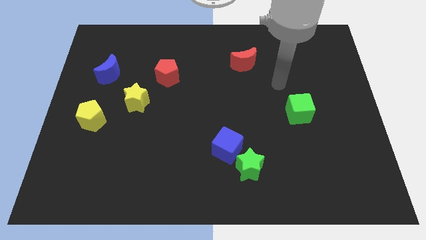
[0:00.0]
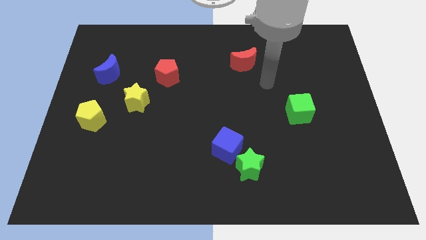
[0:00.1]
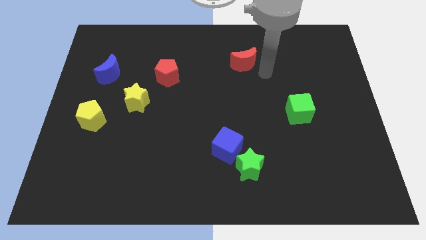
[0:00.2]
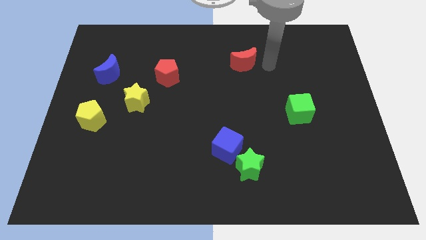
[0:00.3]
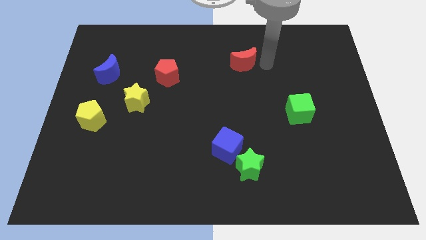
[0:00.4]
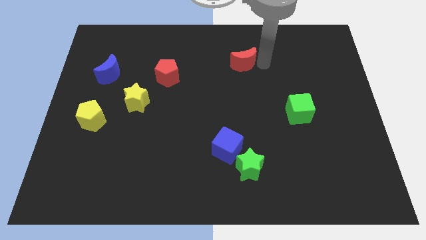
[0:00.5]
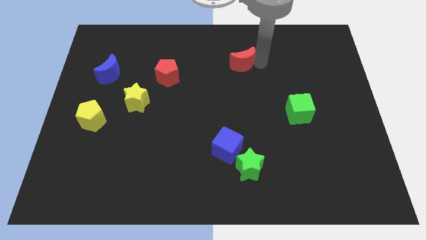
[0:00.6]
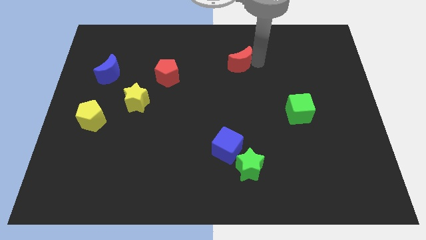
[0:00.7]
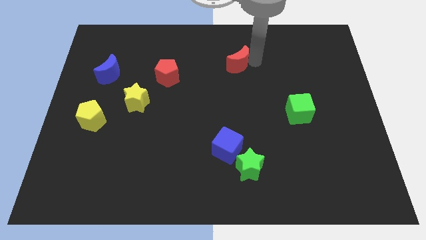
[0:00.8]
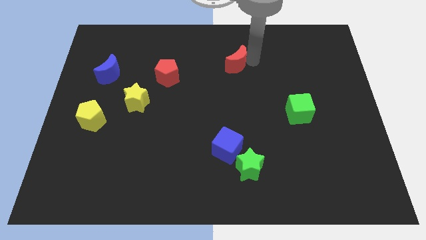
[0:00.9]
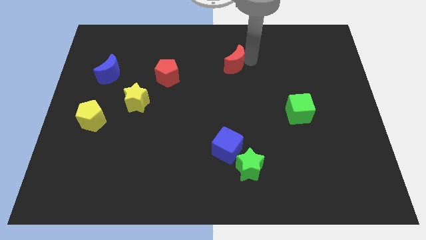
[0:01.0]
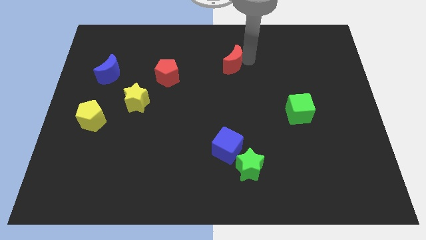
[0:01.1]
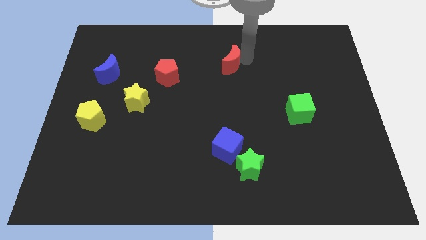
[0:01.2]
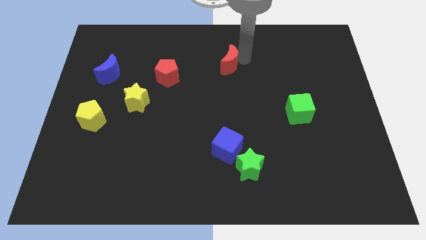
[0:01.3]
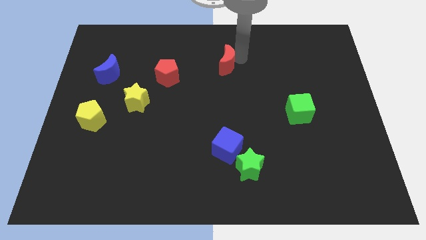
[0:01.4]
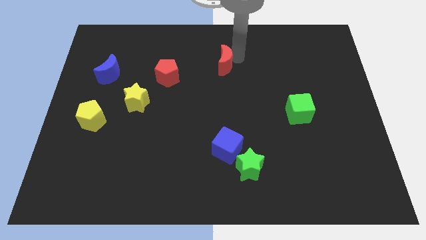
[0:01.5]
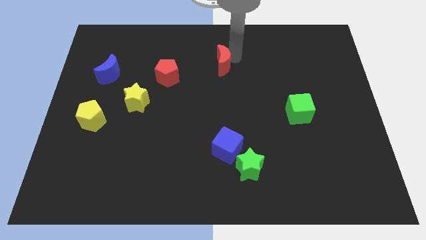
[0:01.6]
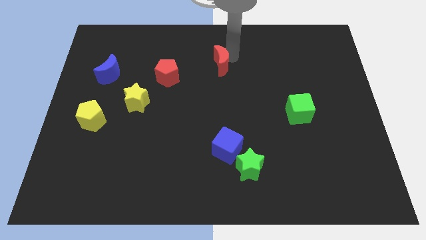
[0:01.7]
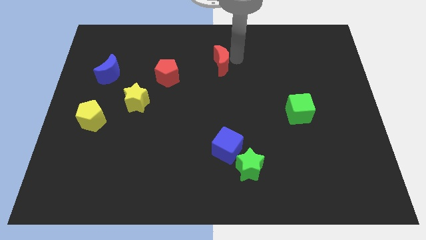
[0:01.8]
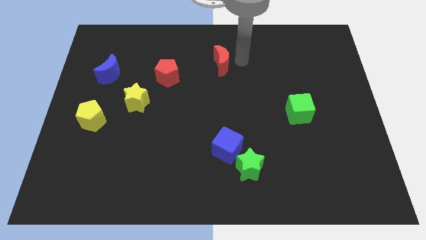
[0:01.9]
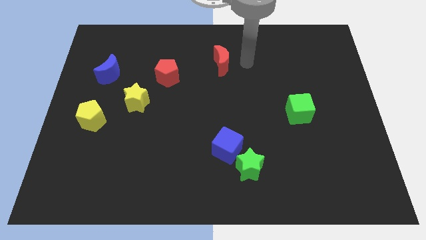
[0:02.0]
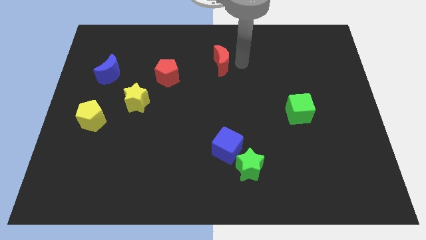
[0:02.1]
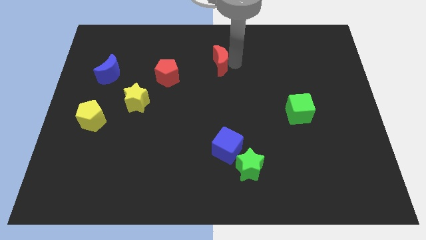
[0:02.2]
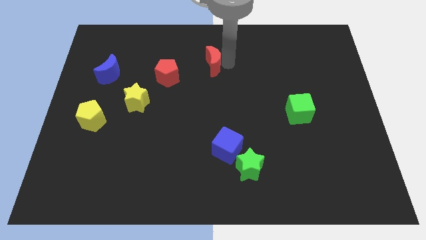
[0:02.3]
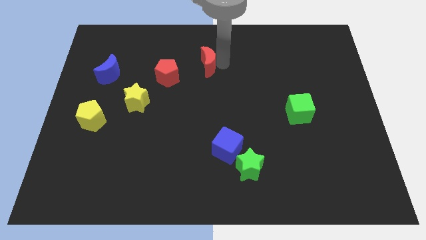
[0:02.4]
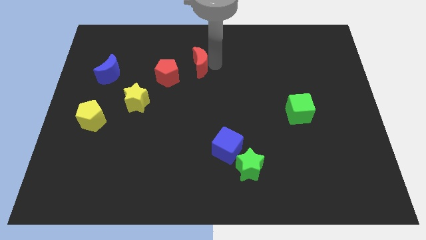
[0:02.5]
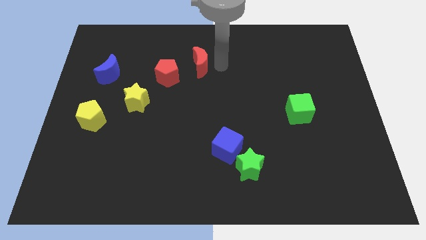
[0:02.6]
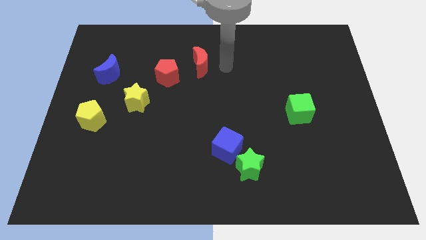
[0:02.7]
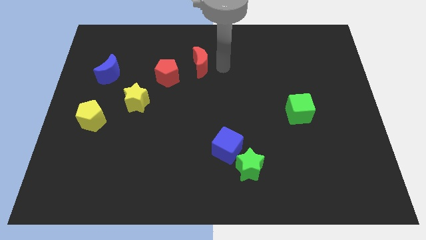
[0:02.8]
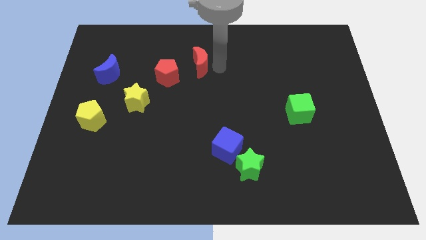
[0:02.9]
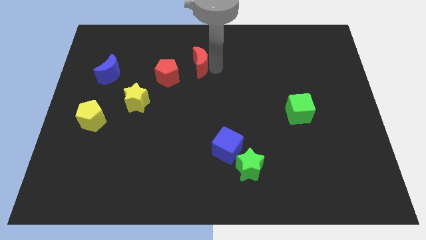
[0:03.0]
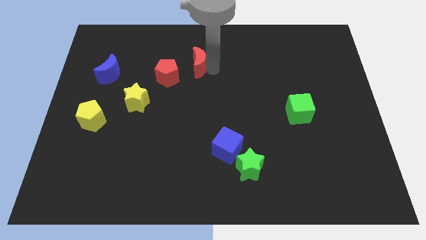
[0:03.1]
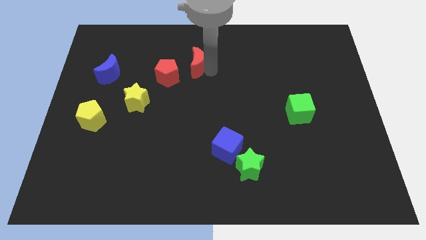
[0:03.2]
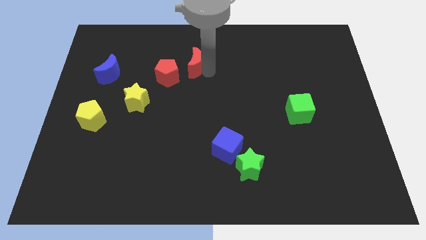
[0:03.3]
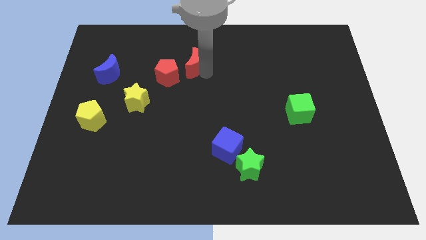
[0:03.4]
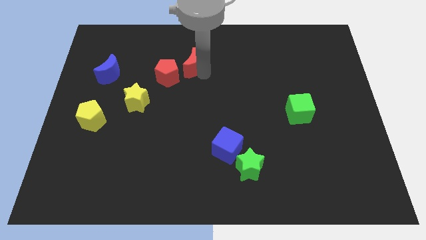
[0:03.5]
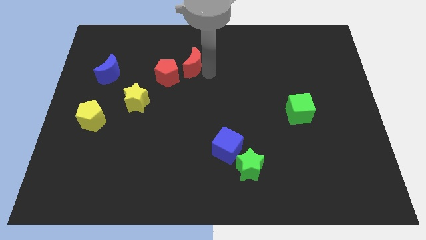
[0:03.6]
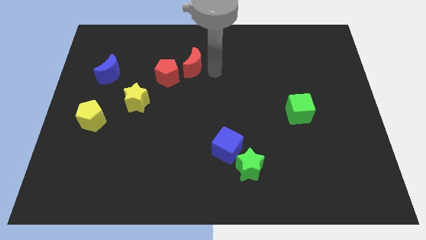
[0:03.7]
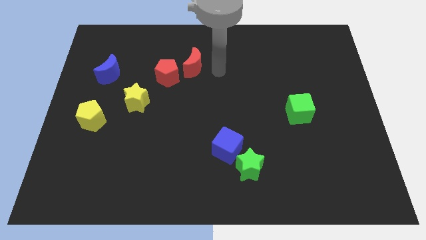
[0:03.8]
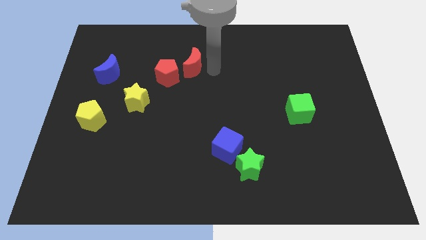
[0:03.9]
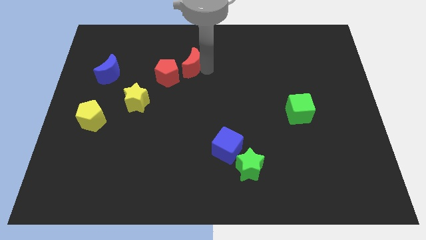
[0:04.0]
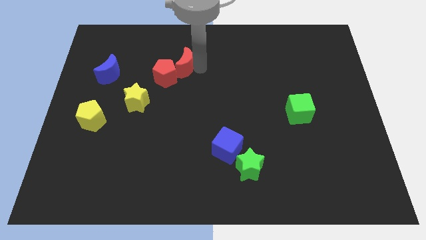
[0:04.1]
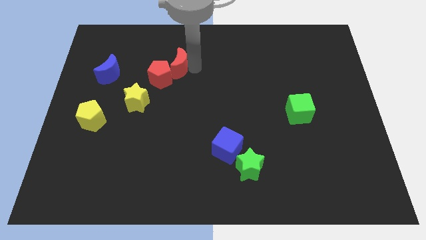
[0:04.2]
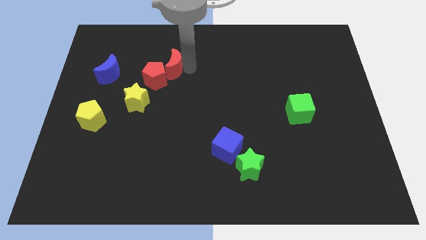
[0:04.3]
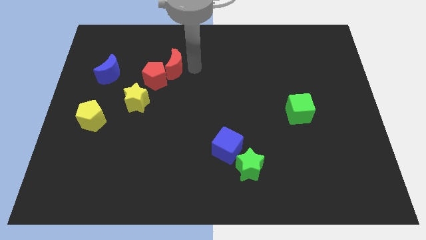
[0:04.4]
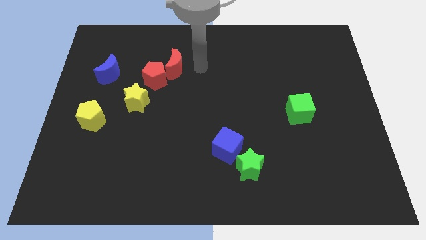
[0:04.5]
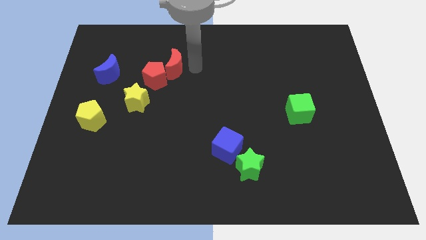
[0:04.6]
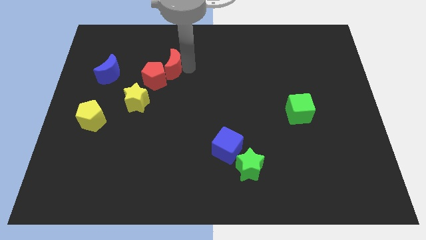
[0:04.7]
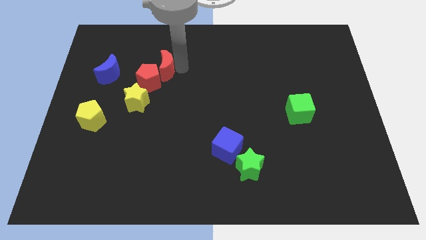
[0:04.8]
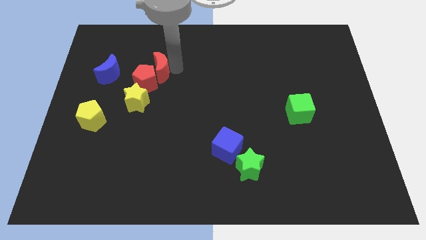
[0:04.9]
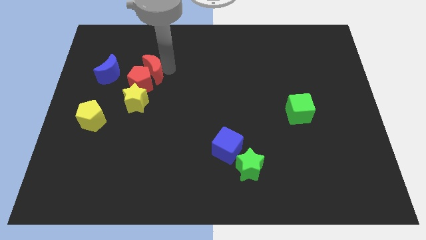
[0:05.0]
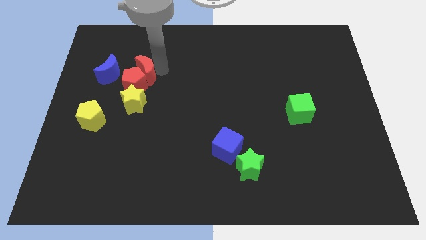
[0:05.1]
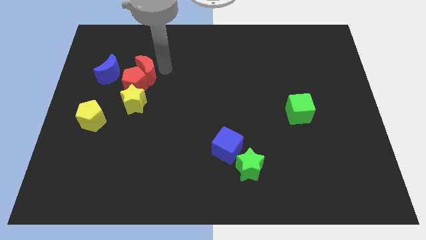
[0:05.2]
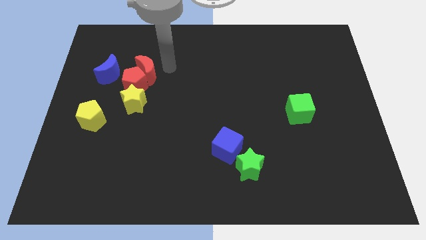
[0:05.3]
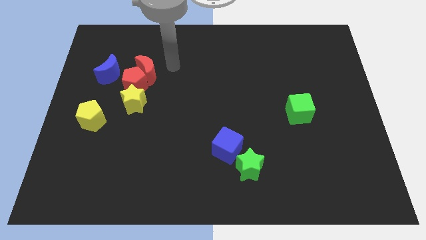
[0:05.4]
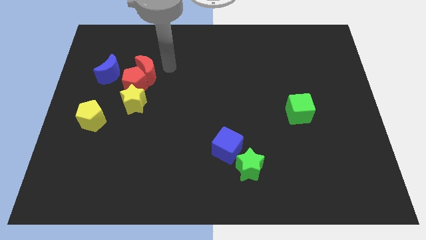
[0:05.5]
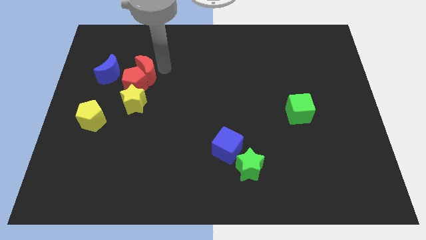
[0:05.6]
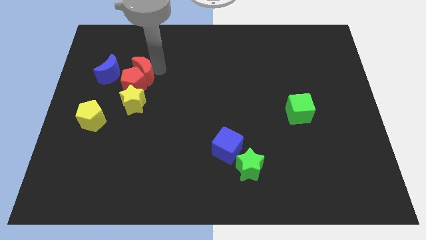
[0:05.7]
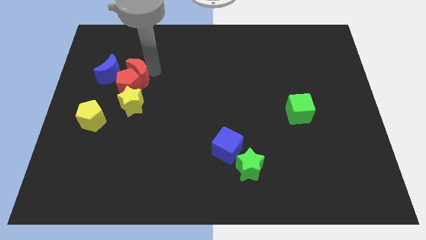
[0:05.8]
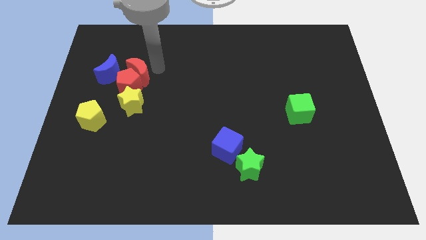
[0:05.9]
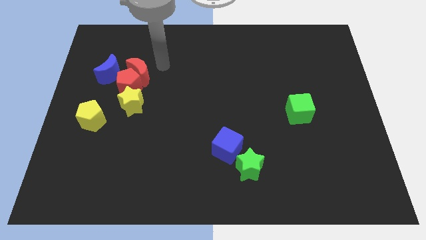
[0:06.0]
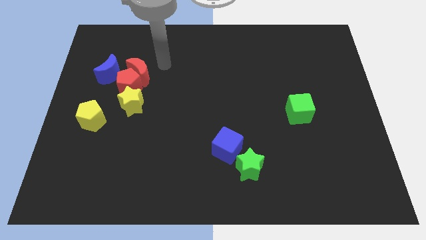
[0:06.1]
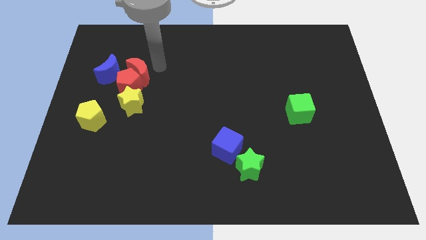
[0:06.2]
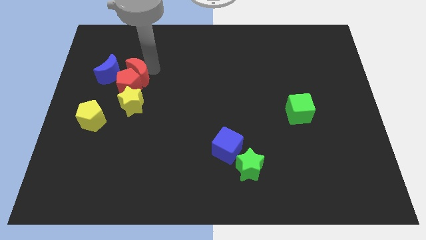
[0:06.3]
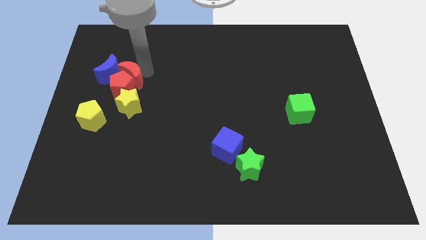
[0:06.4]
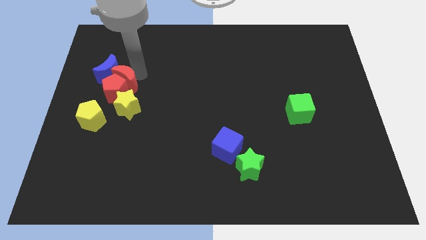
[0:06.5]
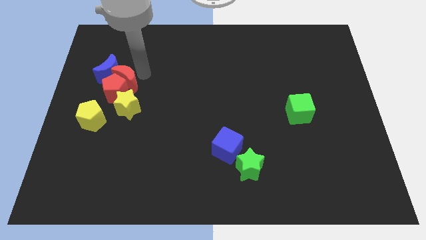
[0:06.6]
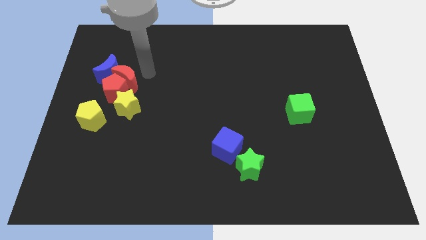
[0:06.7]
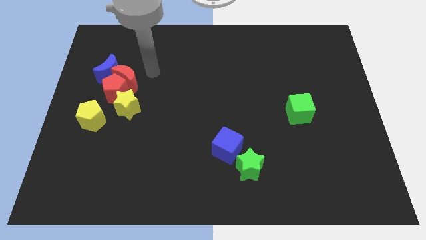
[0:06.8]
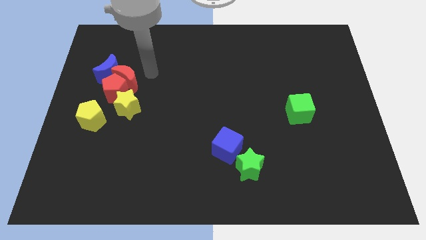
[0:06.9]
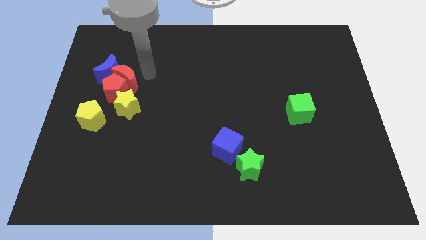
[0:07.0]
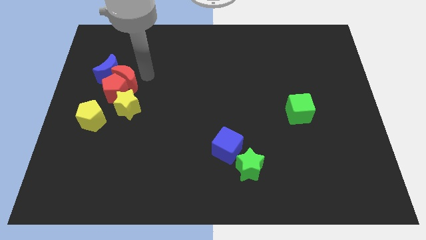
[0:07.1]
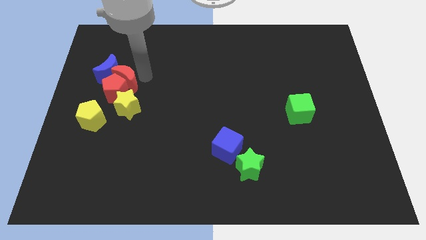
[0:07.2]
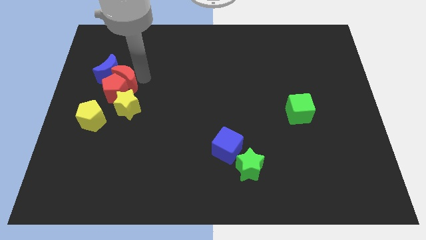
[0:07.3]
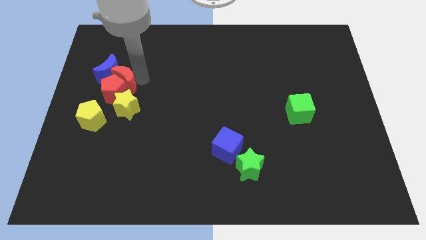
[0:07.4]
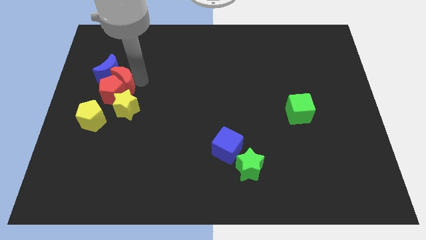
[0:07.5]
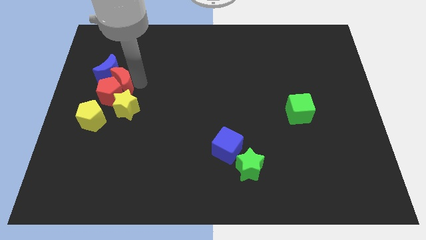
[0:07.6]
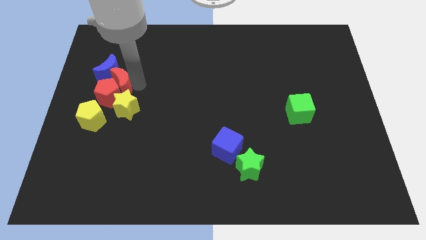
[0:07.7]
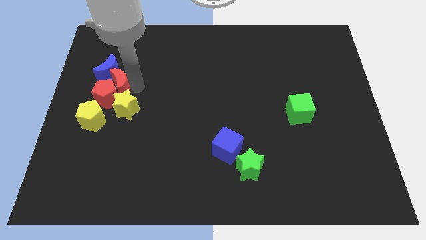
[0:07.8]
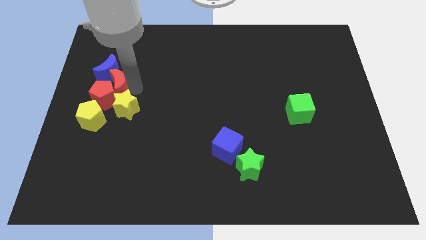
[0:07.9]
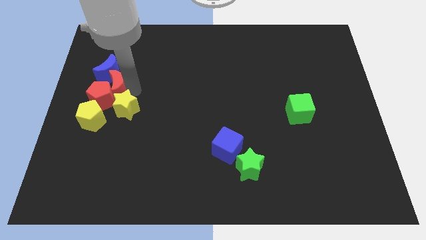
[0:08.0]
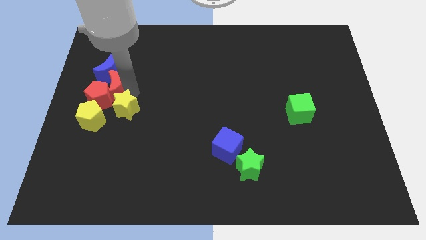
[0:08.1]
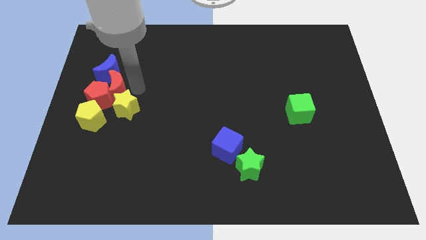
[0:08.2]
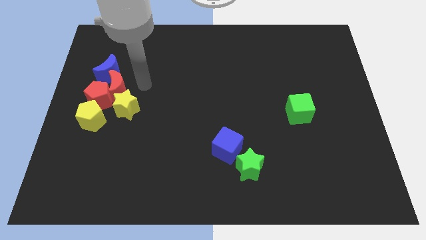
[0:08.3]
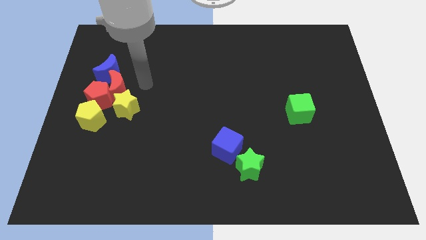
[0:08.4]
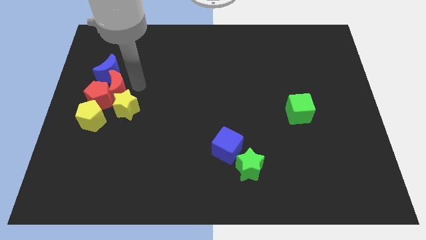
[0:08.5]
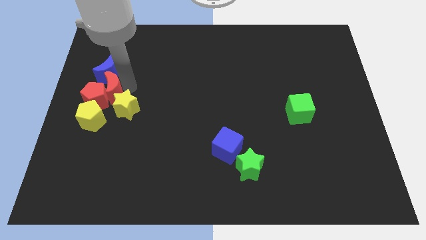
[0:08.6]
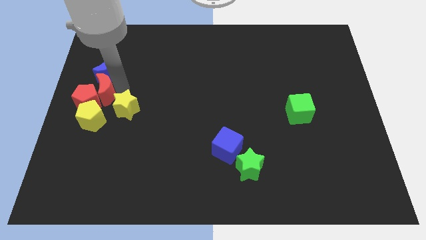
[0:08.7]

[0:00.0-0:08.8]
slide the red moon to the center left
